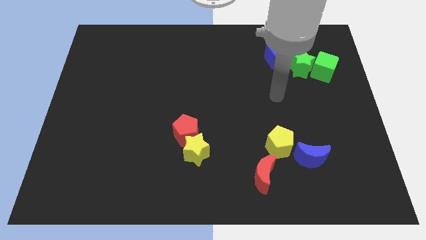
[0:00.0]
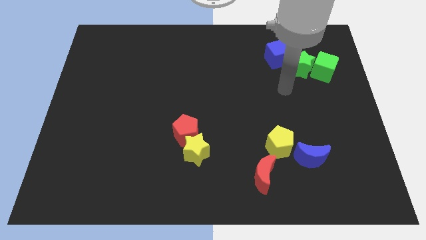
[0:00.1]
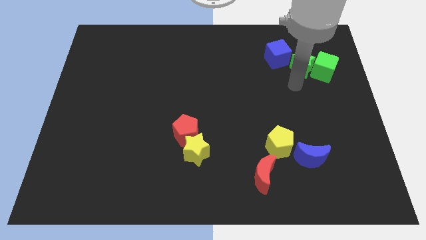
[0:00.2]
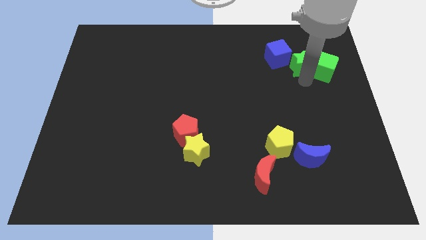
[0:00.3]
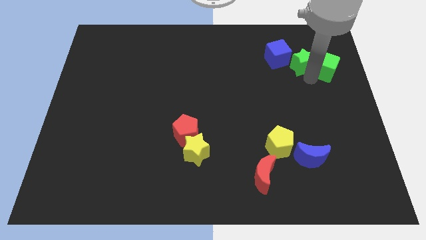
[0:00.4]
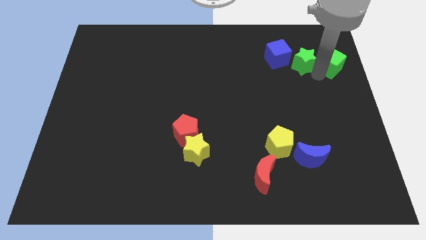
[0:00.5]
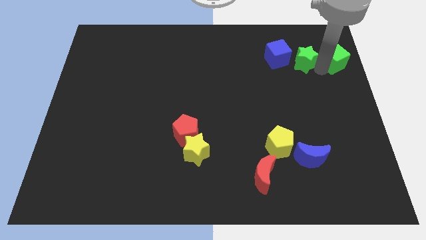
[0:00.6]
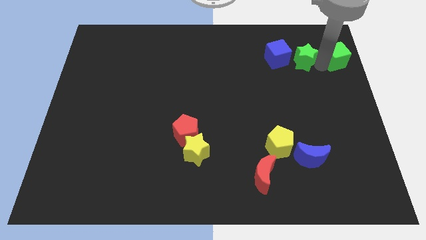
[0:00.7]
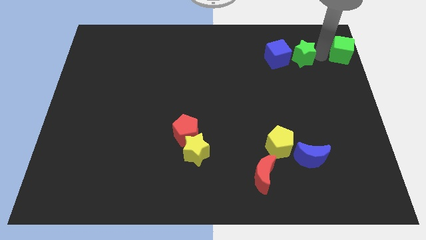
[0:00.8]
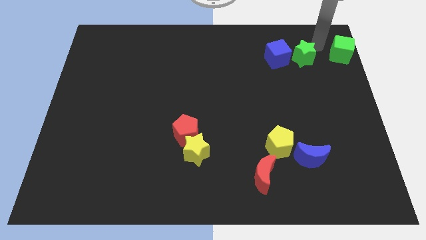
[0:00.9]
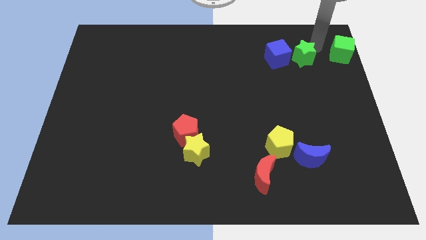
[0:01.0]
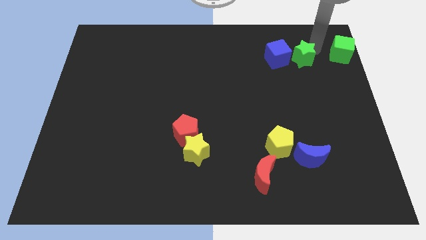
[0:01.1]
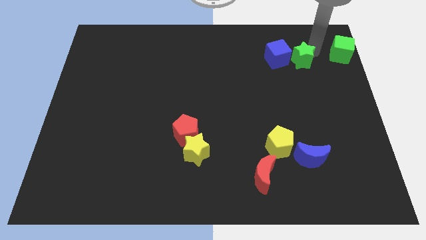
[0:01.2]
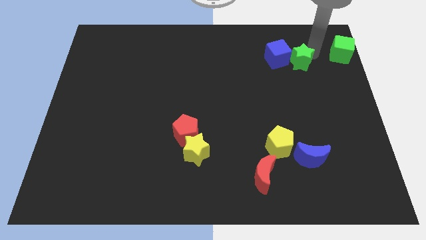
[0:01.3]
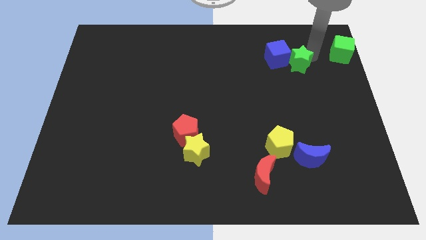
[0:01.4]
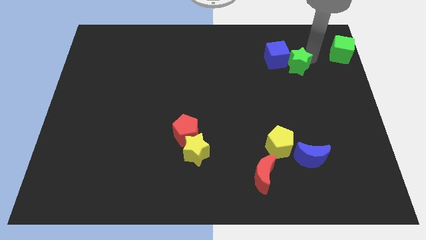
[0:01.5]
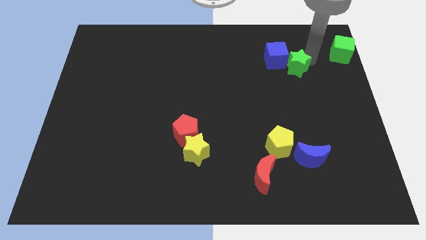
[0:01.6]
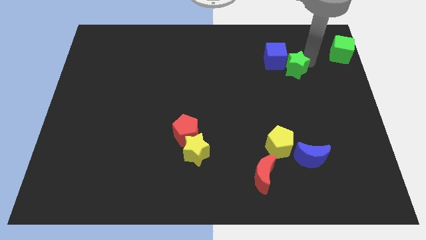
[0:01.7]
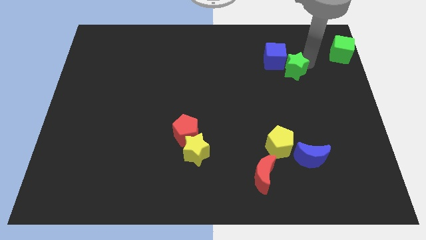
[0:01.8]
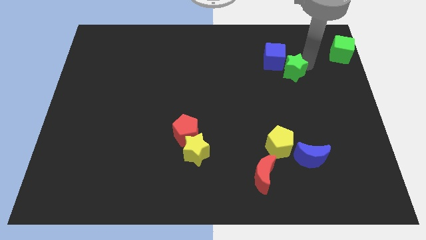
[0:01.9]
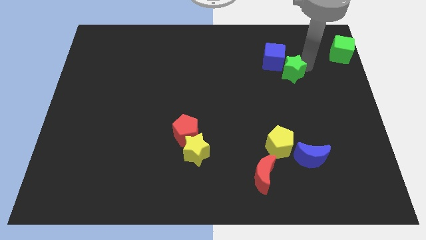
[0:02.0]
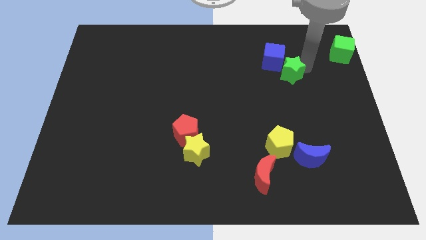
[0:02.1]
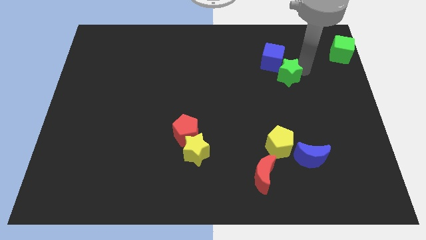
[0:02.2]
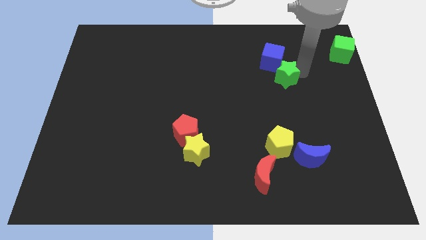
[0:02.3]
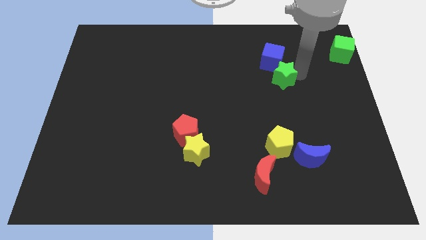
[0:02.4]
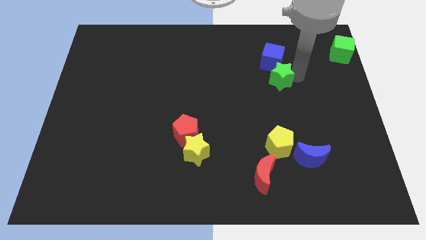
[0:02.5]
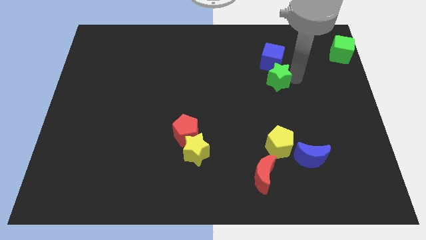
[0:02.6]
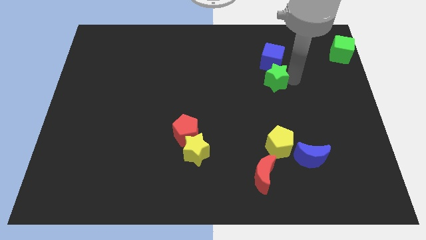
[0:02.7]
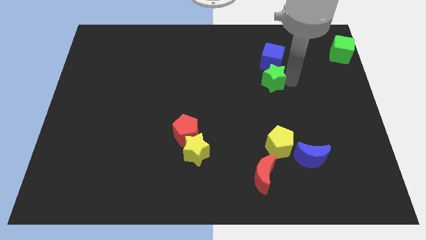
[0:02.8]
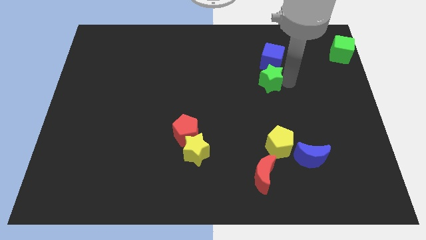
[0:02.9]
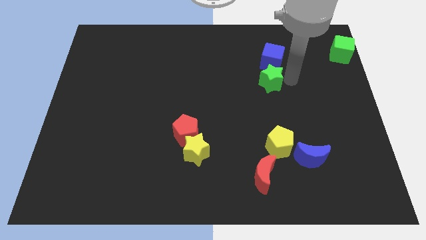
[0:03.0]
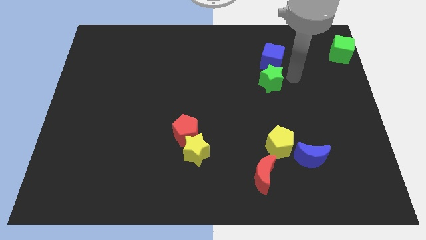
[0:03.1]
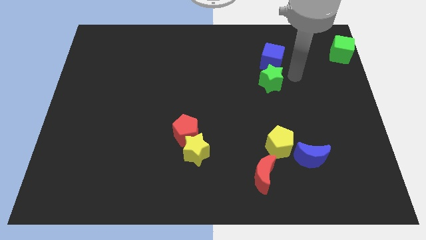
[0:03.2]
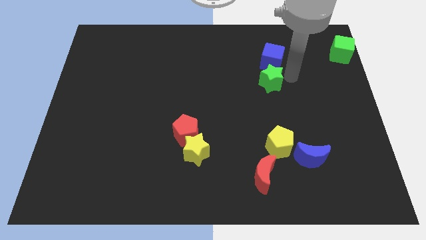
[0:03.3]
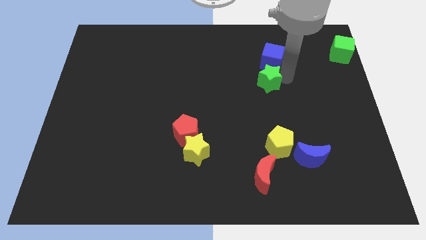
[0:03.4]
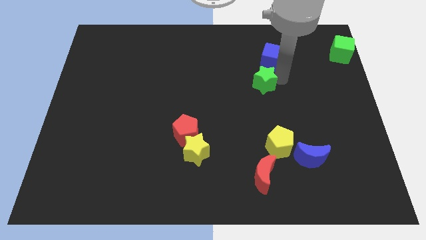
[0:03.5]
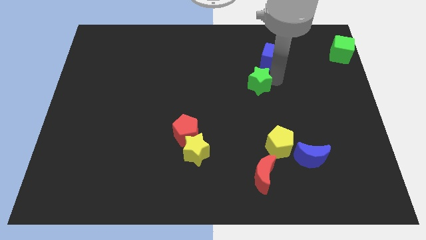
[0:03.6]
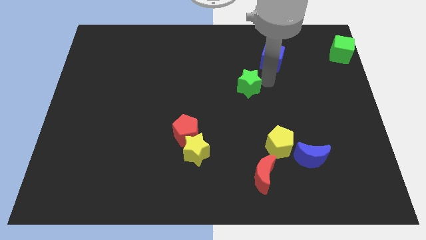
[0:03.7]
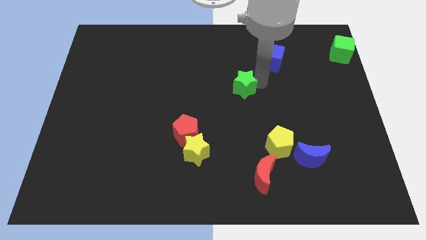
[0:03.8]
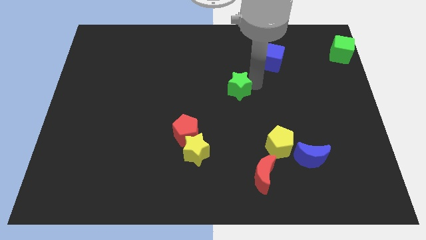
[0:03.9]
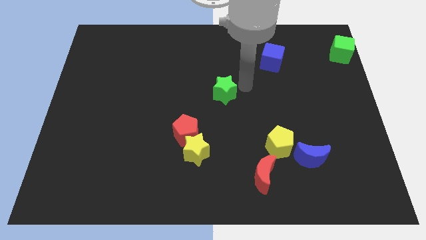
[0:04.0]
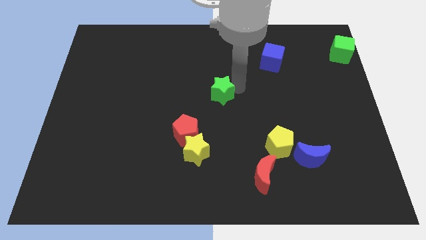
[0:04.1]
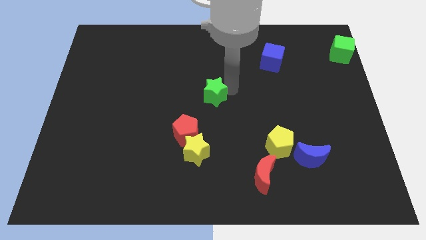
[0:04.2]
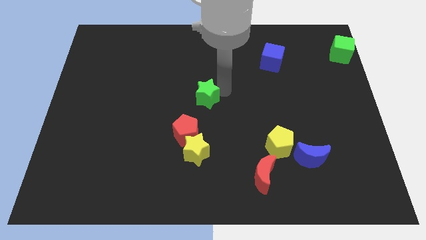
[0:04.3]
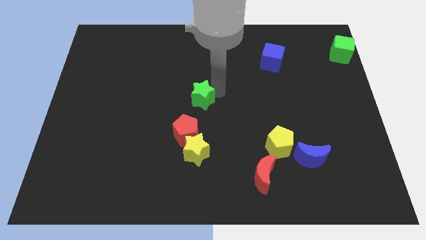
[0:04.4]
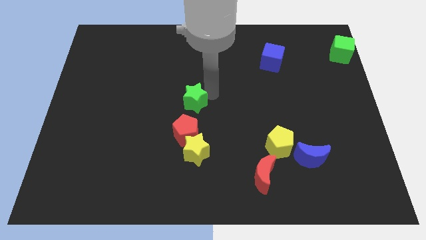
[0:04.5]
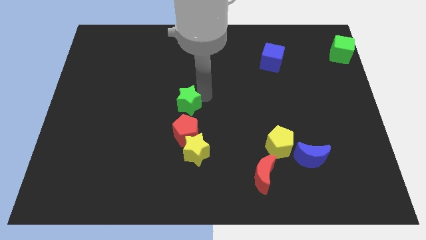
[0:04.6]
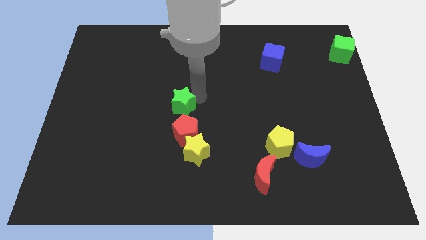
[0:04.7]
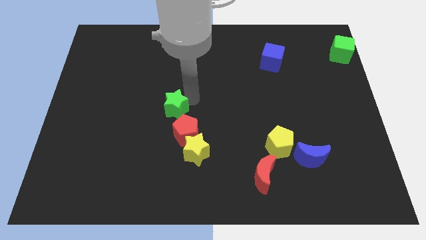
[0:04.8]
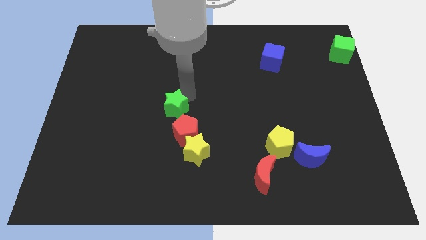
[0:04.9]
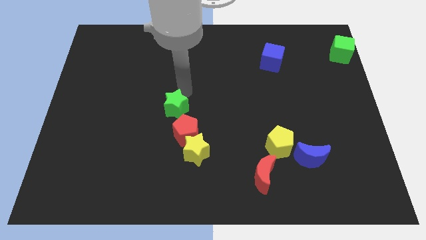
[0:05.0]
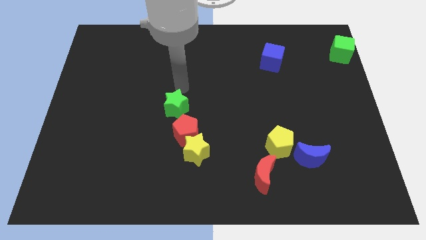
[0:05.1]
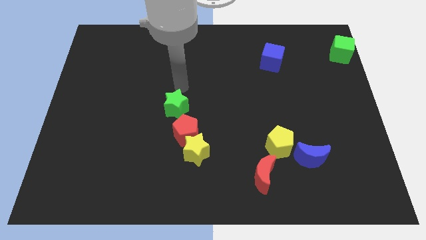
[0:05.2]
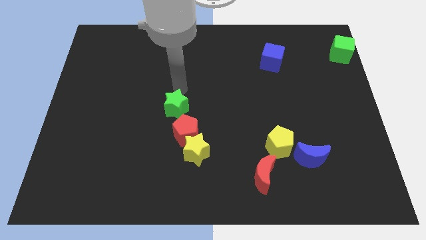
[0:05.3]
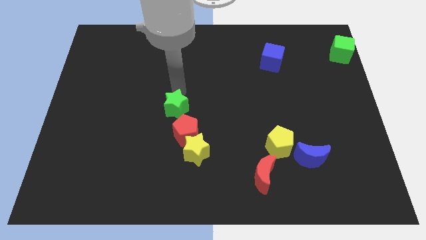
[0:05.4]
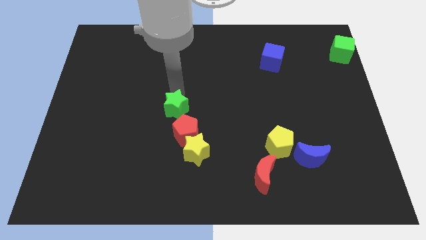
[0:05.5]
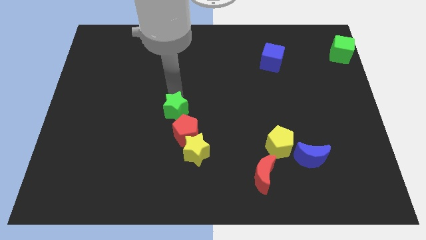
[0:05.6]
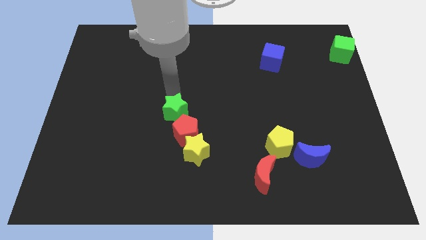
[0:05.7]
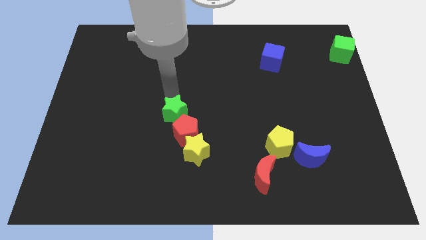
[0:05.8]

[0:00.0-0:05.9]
slide the green star to the top left side of the yellow star

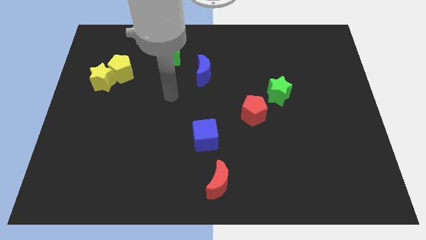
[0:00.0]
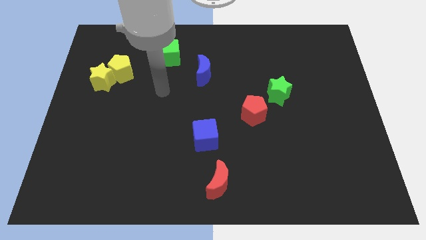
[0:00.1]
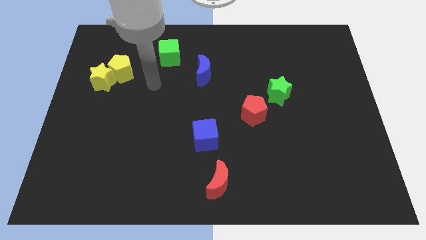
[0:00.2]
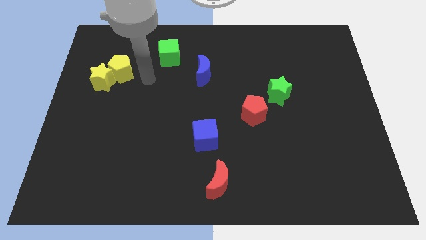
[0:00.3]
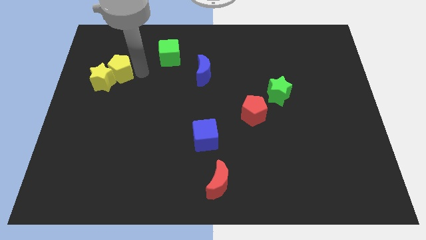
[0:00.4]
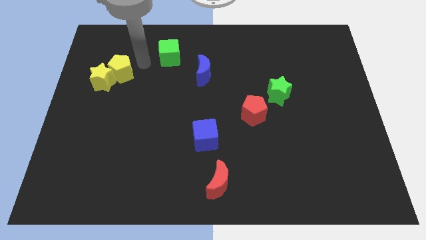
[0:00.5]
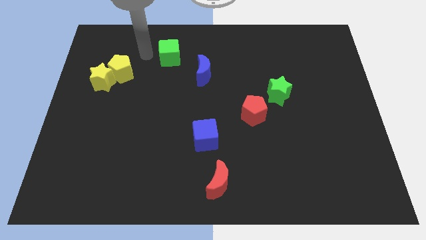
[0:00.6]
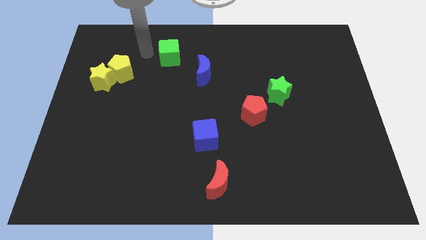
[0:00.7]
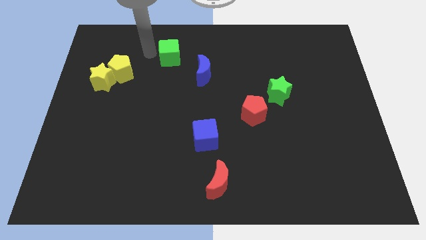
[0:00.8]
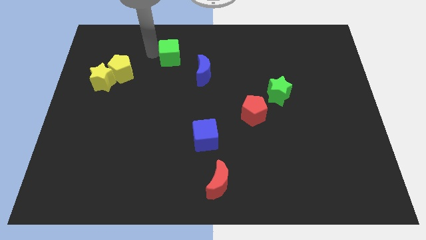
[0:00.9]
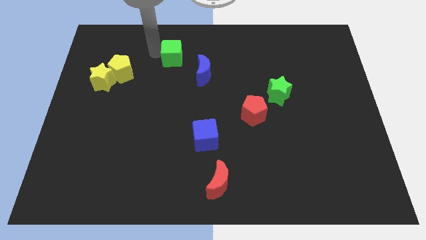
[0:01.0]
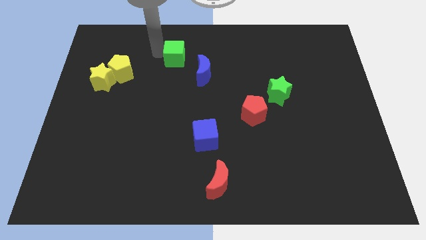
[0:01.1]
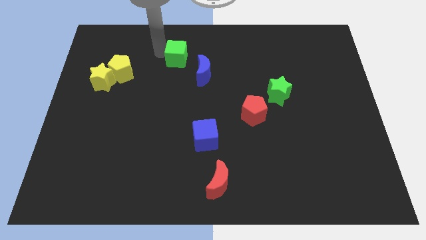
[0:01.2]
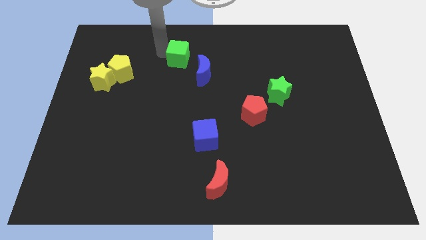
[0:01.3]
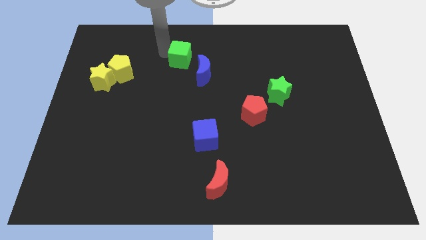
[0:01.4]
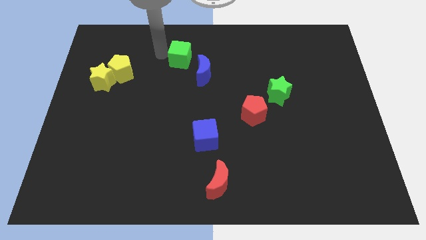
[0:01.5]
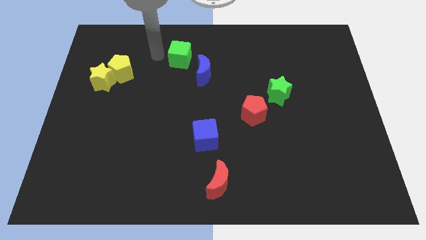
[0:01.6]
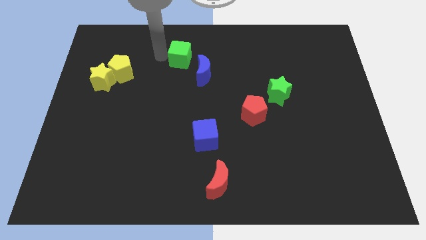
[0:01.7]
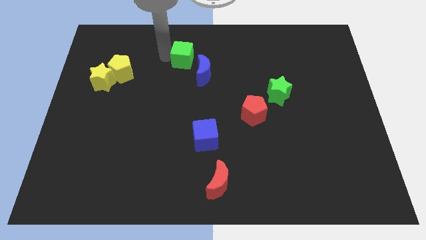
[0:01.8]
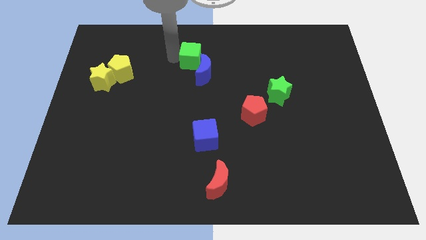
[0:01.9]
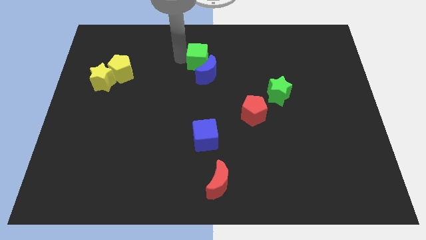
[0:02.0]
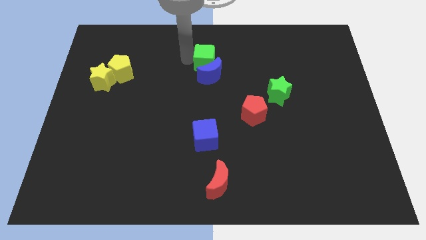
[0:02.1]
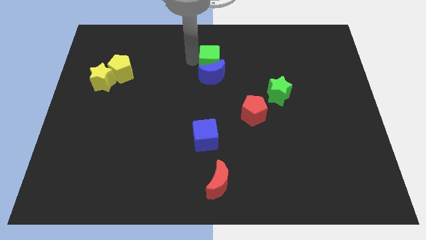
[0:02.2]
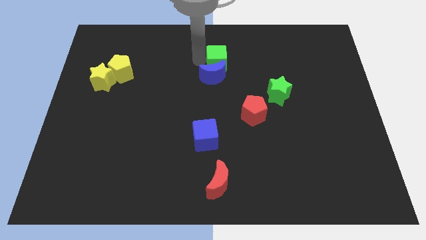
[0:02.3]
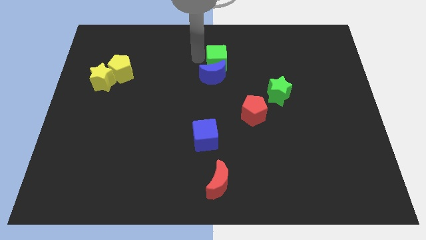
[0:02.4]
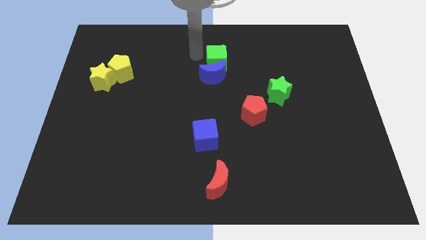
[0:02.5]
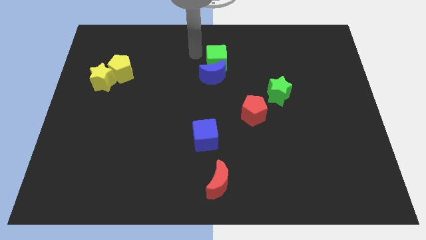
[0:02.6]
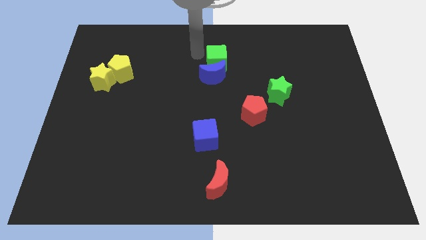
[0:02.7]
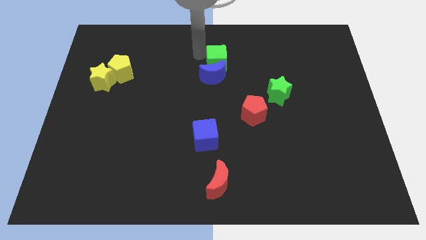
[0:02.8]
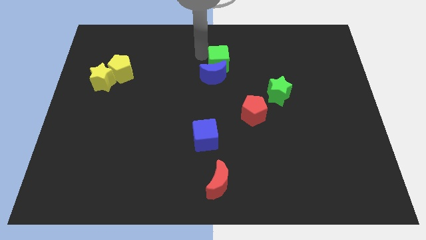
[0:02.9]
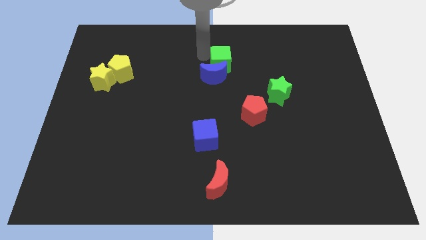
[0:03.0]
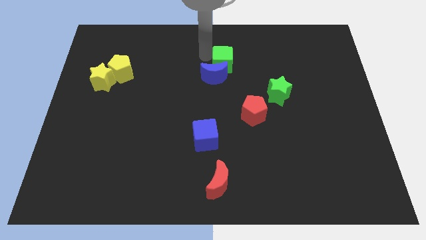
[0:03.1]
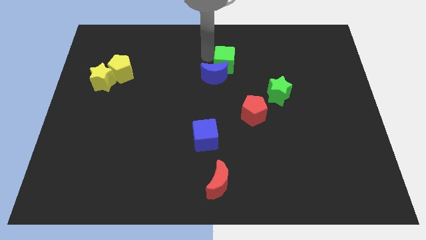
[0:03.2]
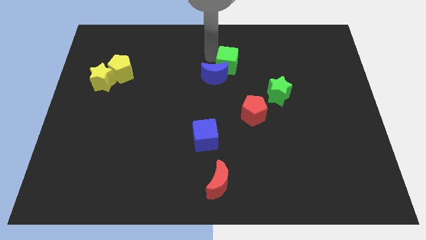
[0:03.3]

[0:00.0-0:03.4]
slide the green cube to the right side of the blue moon
